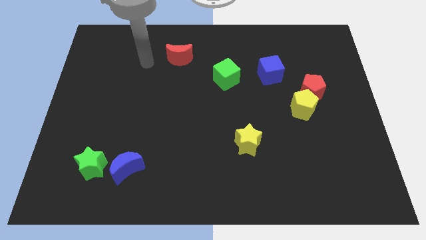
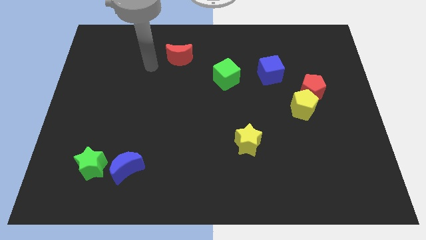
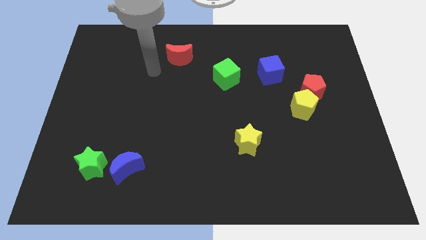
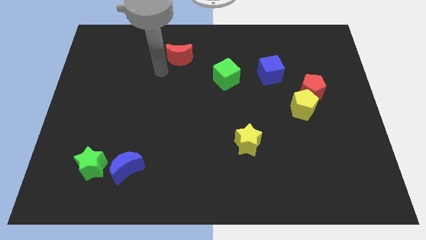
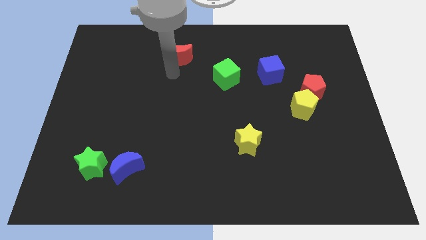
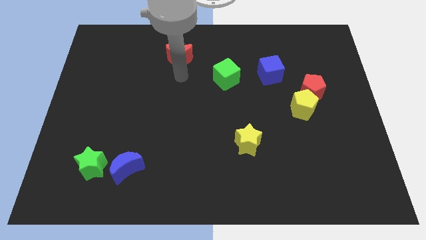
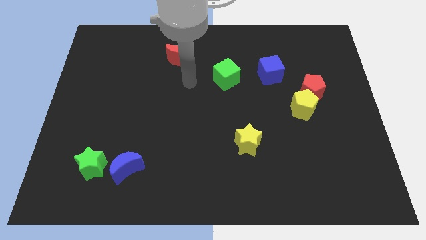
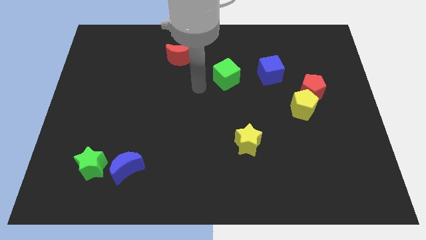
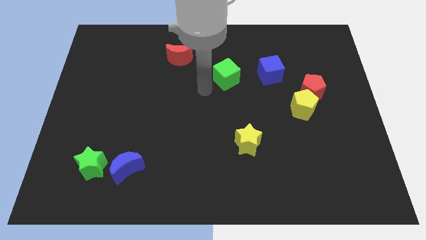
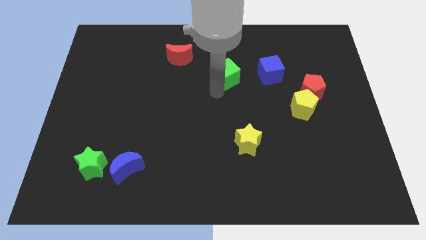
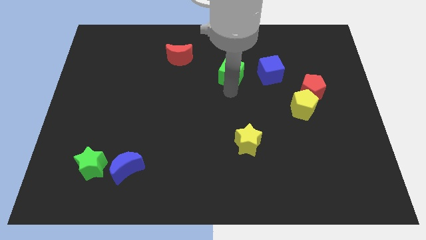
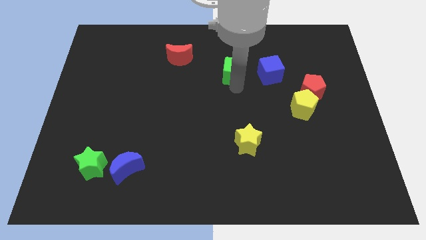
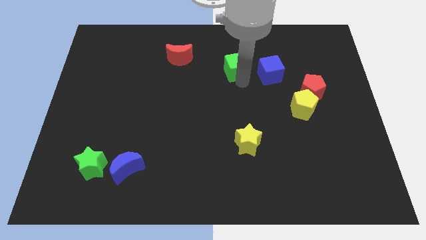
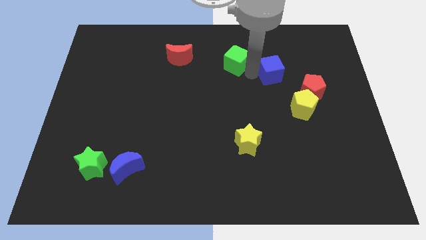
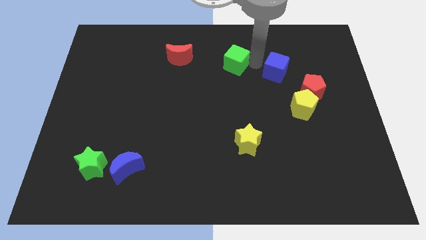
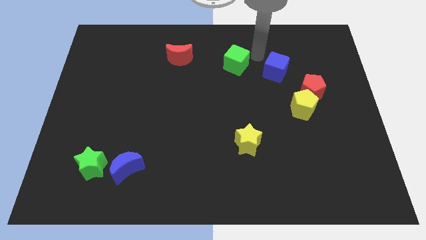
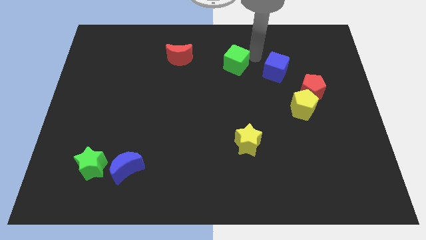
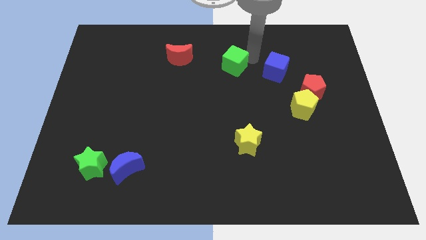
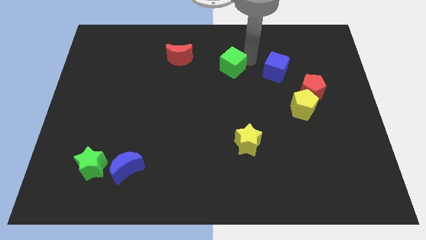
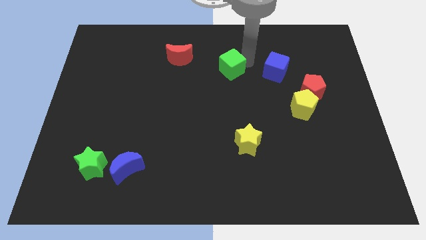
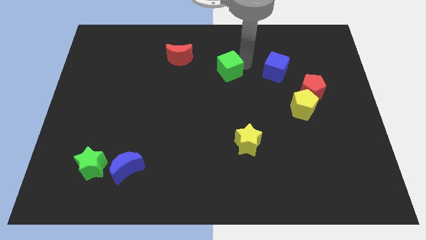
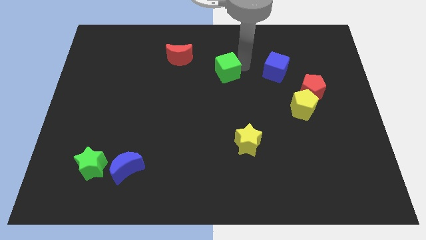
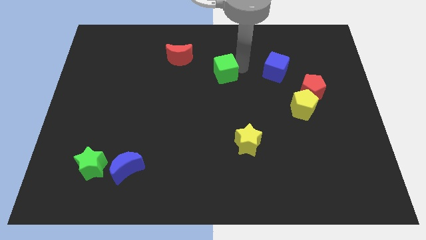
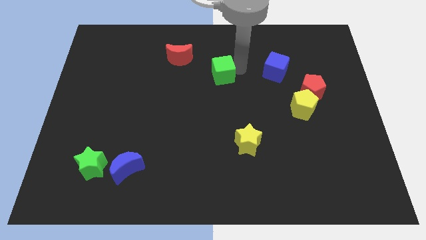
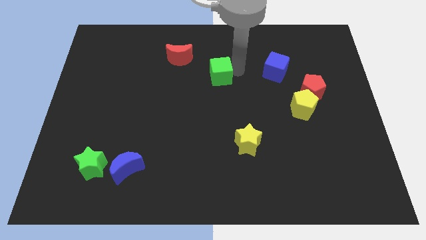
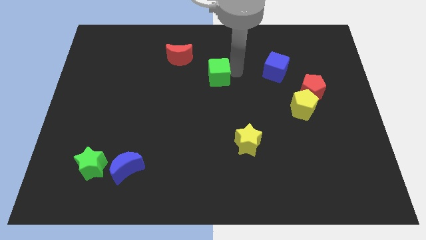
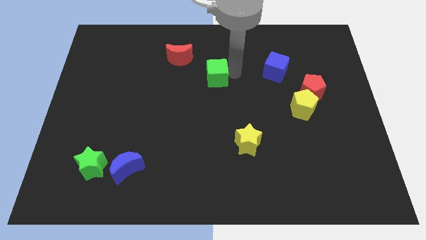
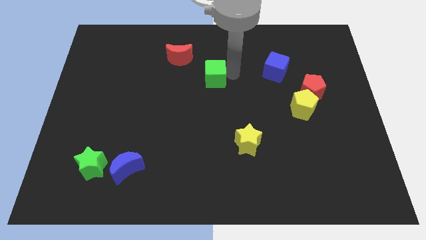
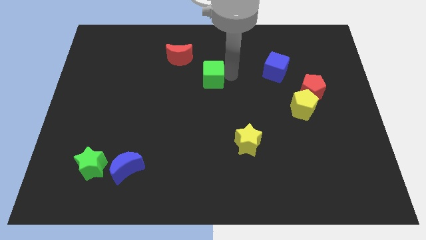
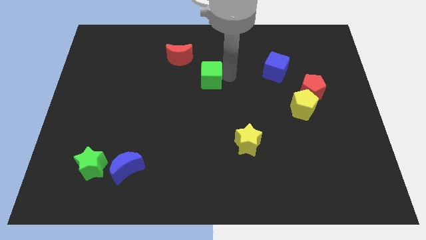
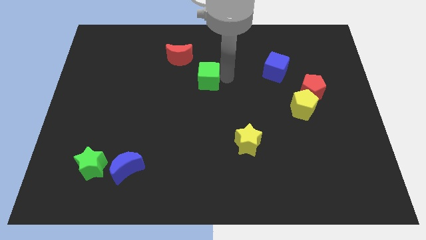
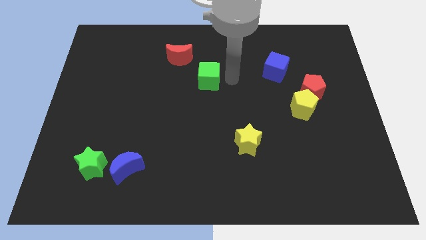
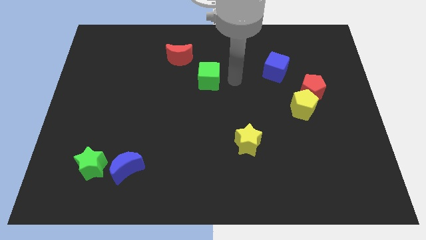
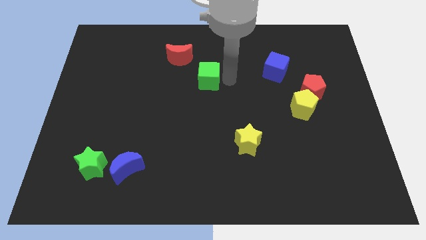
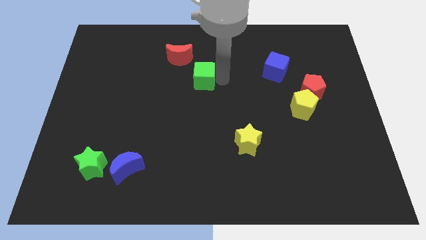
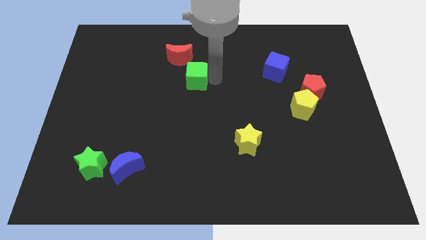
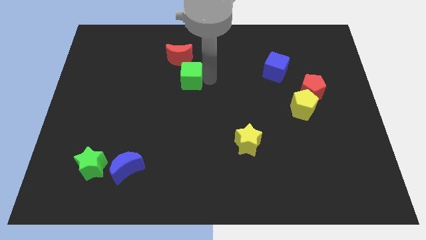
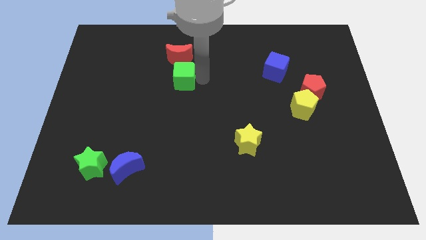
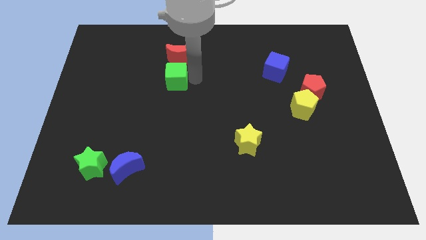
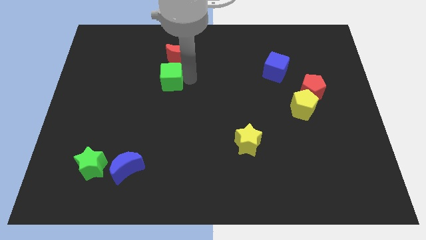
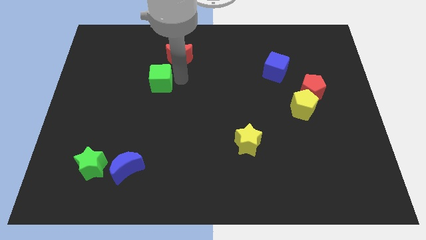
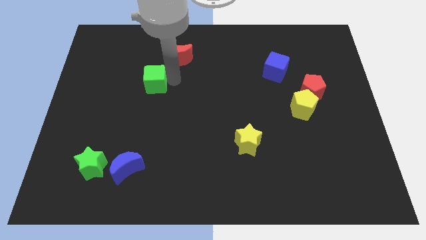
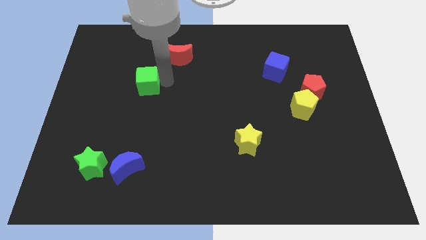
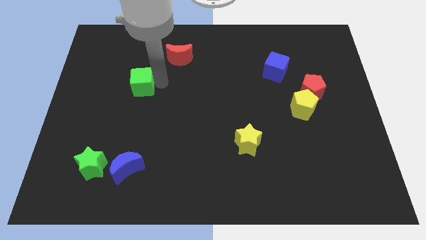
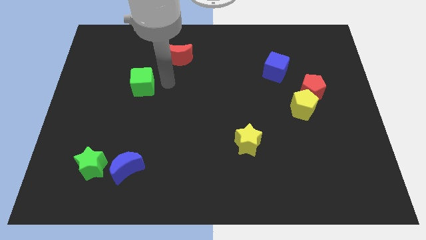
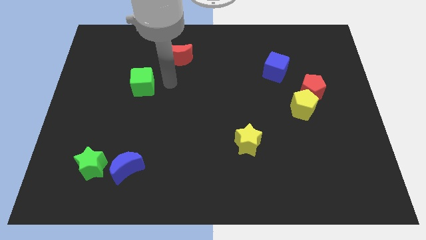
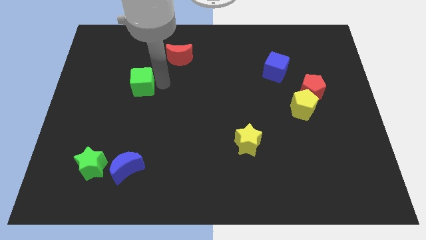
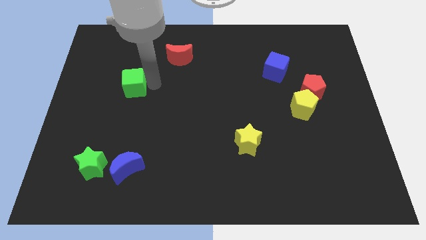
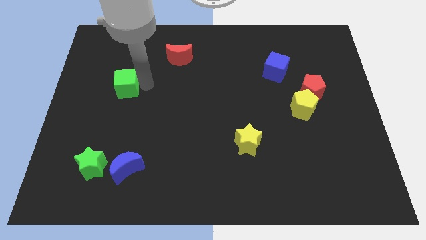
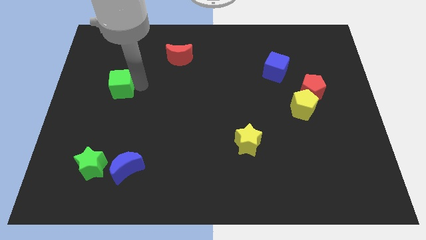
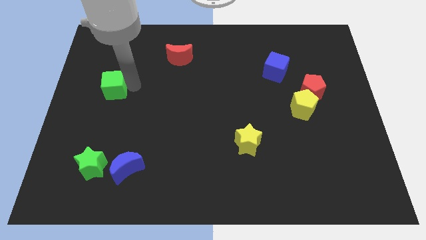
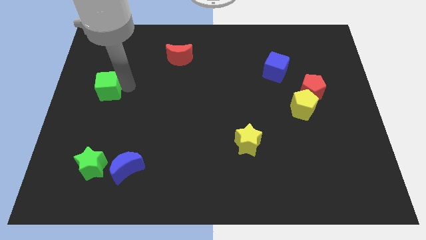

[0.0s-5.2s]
move the green cube to the left side of the board
